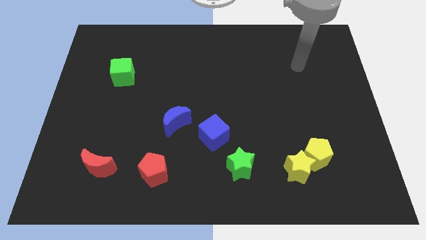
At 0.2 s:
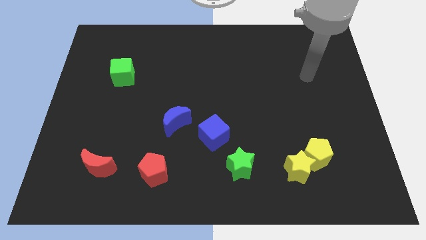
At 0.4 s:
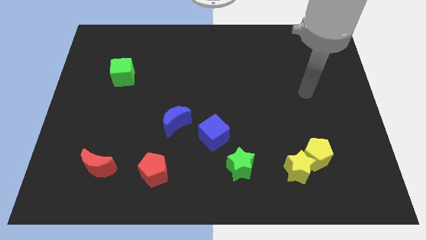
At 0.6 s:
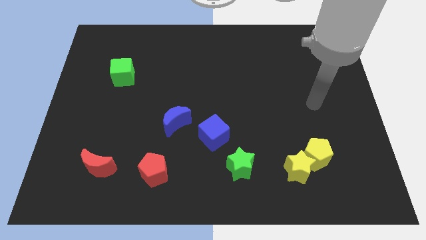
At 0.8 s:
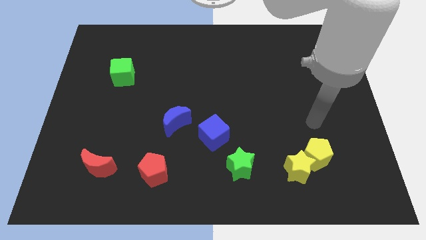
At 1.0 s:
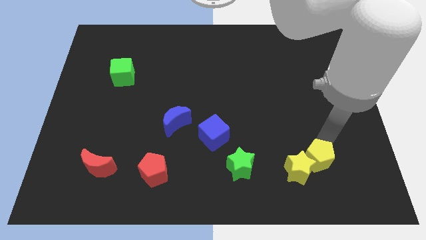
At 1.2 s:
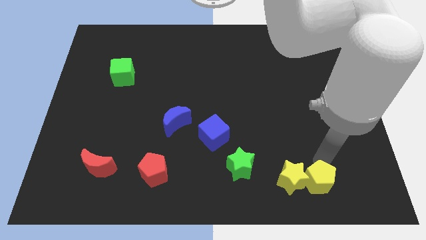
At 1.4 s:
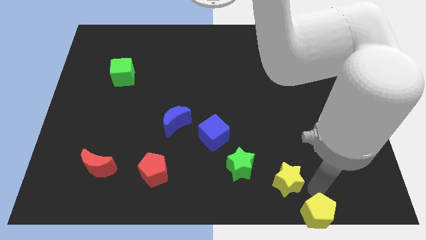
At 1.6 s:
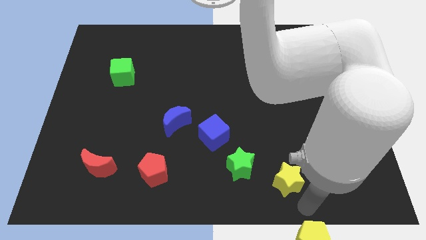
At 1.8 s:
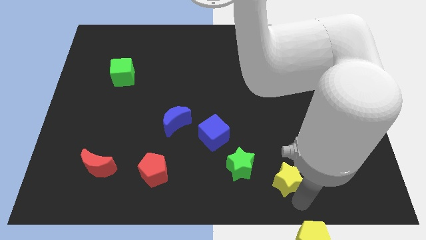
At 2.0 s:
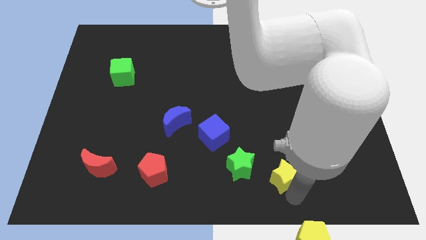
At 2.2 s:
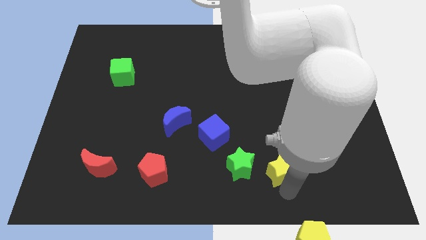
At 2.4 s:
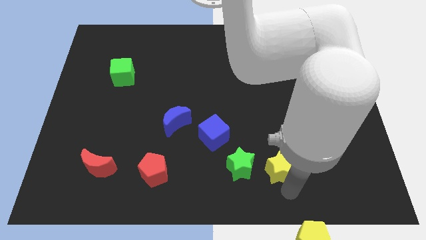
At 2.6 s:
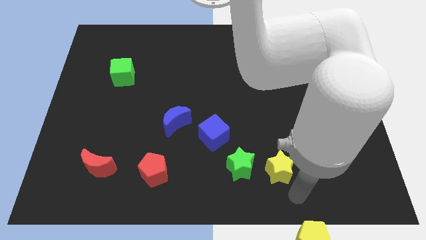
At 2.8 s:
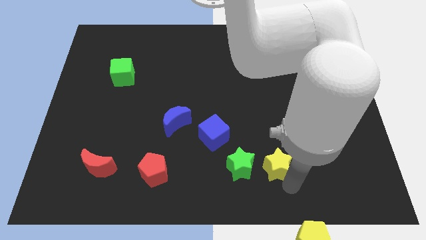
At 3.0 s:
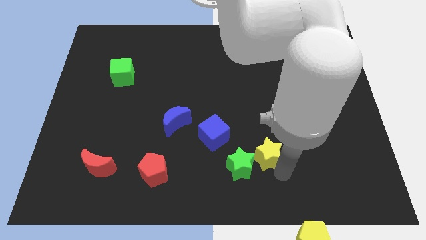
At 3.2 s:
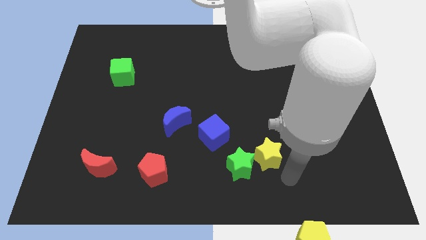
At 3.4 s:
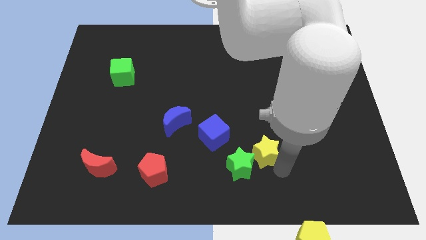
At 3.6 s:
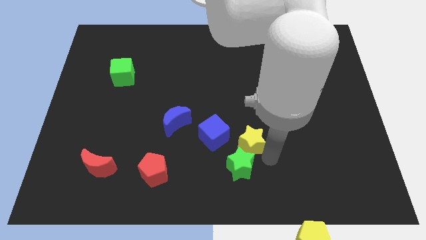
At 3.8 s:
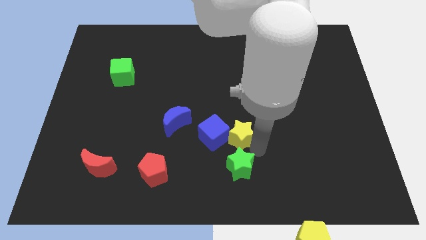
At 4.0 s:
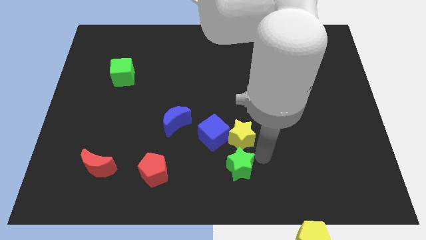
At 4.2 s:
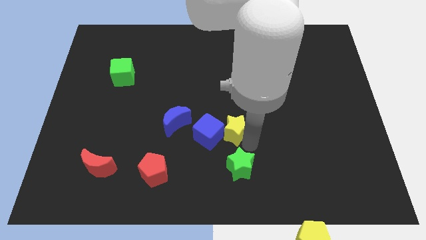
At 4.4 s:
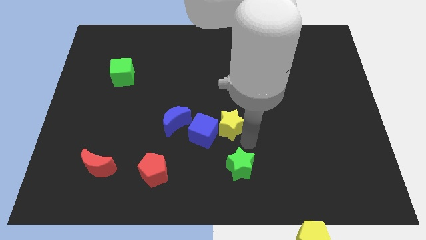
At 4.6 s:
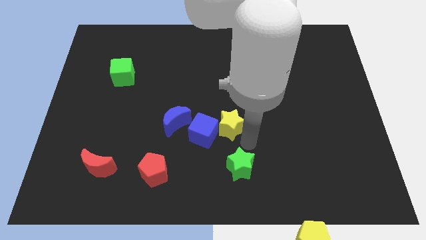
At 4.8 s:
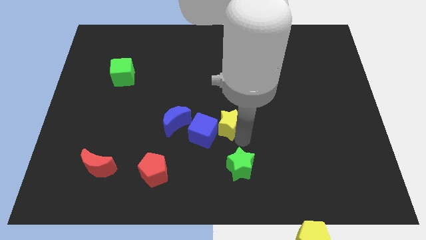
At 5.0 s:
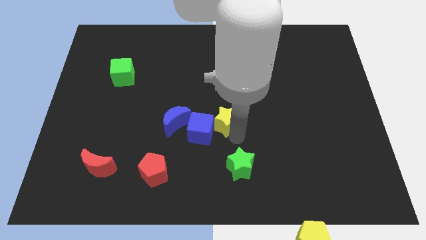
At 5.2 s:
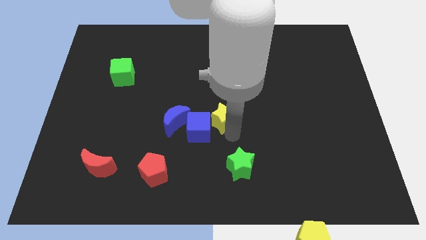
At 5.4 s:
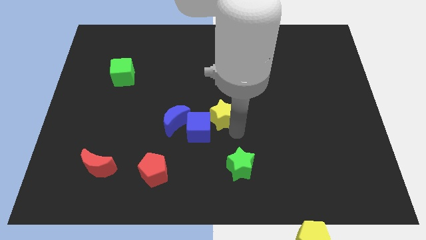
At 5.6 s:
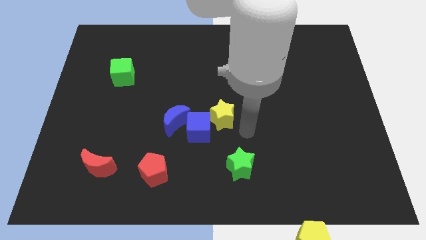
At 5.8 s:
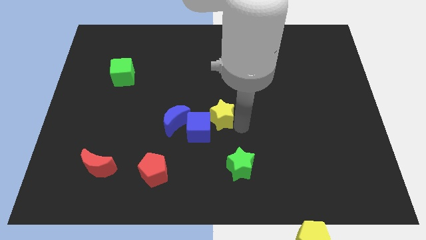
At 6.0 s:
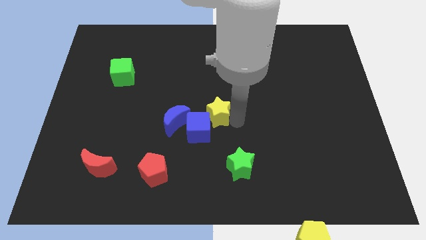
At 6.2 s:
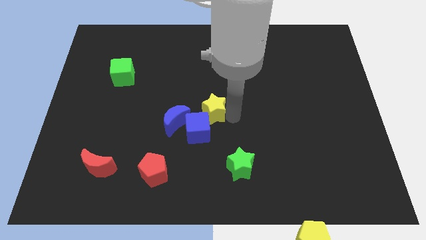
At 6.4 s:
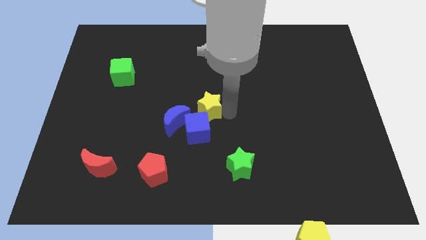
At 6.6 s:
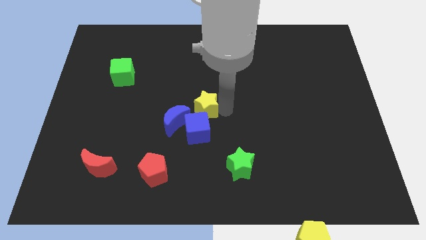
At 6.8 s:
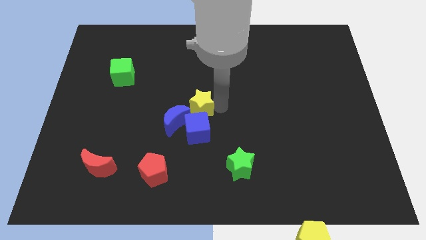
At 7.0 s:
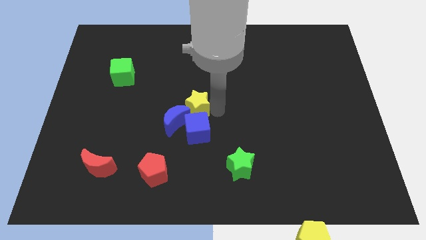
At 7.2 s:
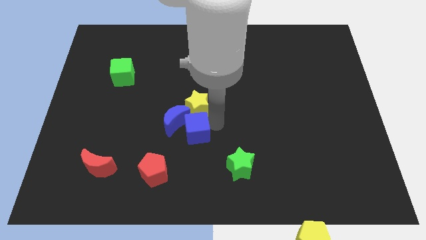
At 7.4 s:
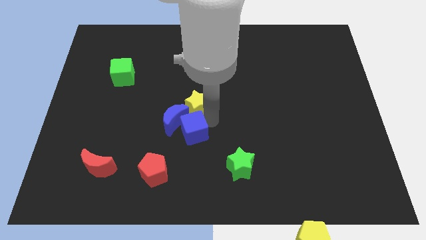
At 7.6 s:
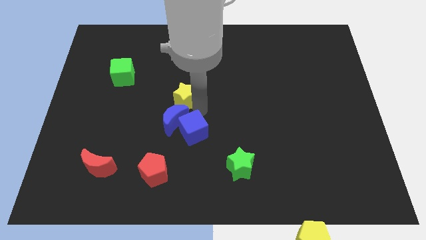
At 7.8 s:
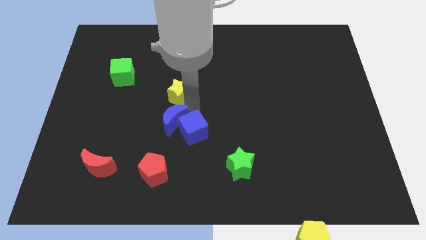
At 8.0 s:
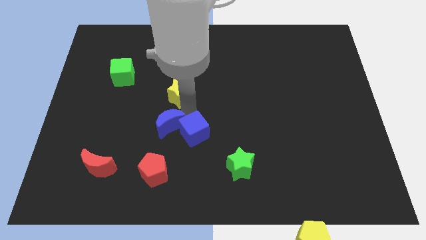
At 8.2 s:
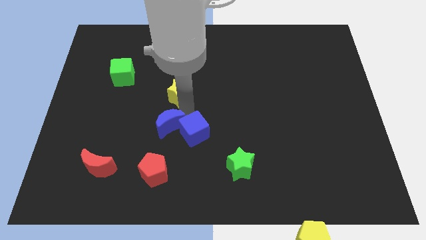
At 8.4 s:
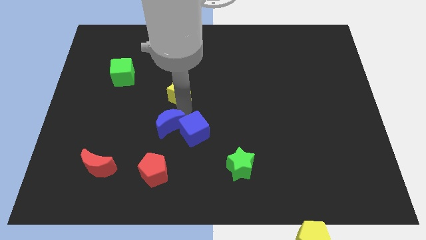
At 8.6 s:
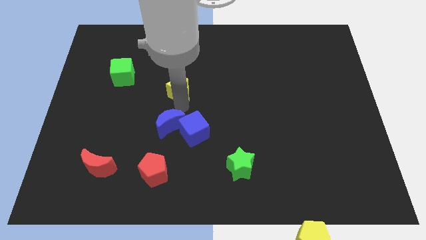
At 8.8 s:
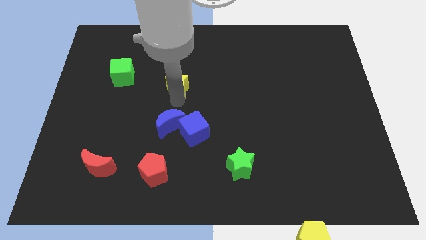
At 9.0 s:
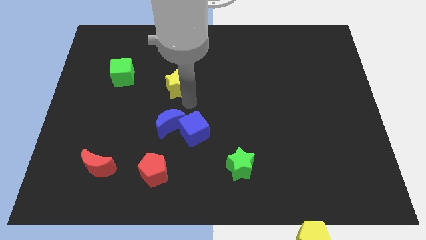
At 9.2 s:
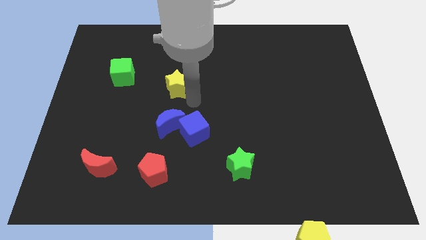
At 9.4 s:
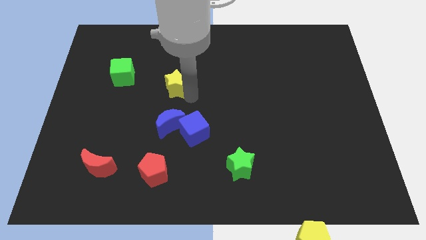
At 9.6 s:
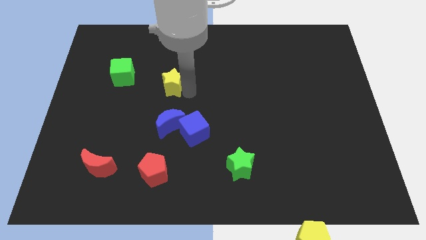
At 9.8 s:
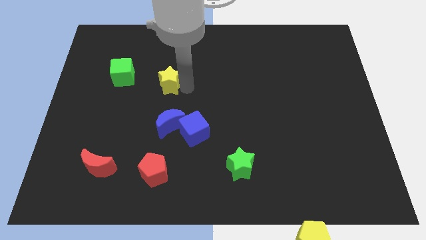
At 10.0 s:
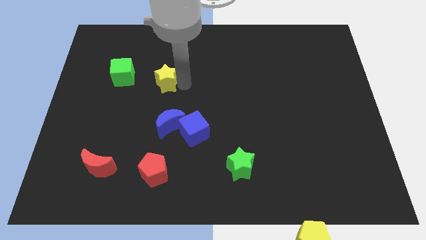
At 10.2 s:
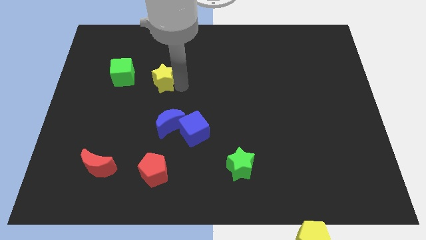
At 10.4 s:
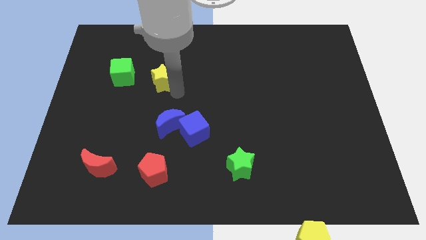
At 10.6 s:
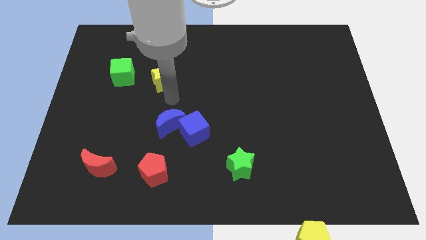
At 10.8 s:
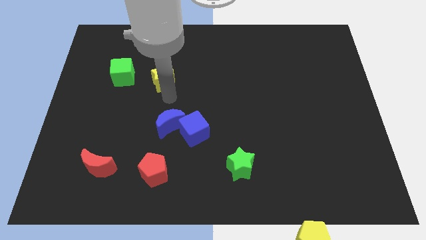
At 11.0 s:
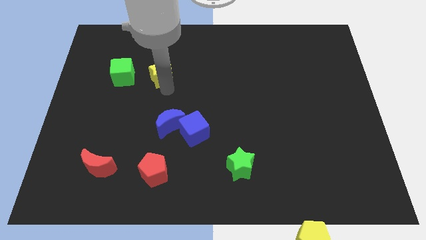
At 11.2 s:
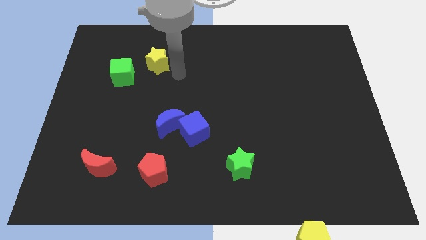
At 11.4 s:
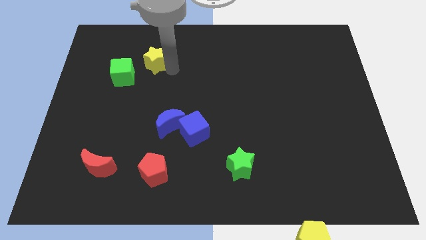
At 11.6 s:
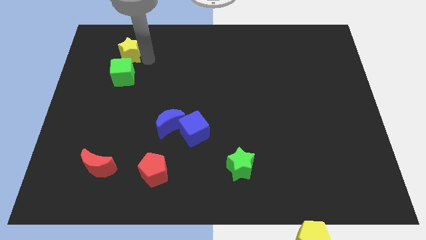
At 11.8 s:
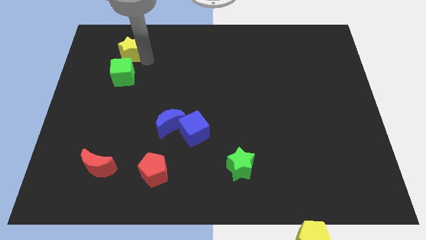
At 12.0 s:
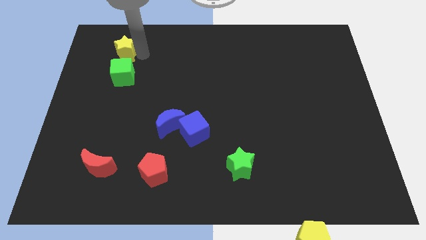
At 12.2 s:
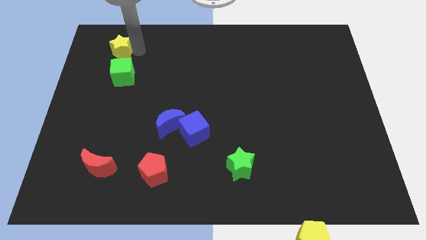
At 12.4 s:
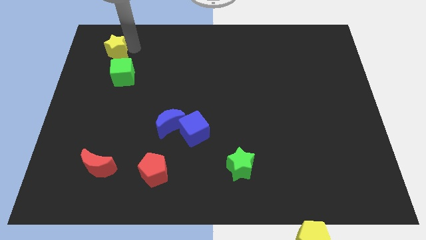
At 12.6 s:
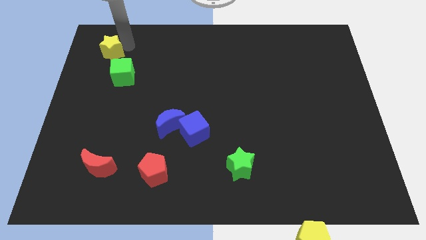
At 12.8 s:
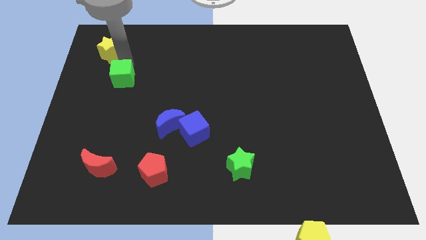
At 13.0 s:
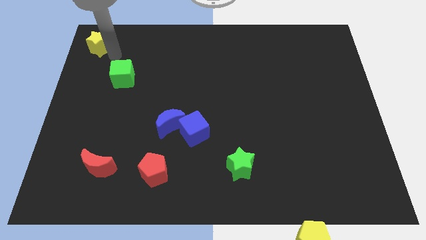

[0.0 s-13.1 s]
push the yellow star to the top left
